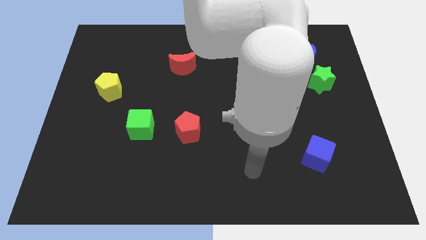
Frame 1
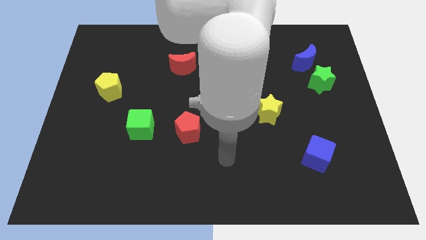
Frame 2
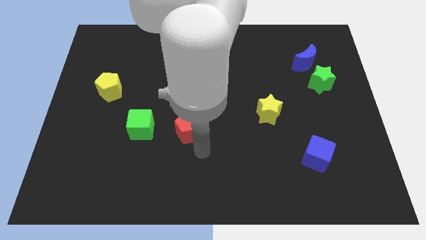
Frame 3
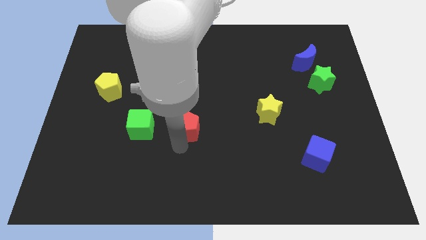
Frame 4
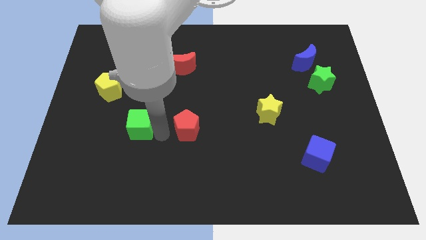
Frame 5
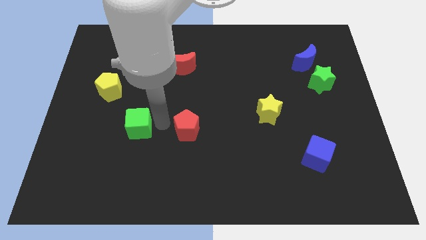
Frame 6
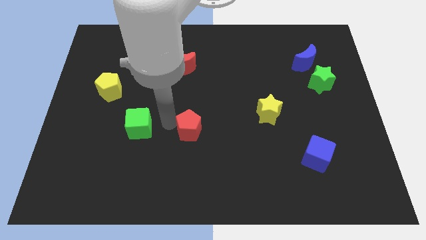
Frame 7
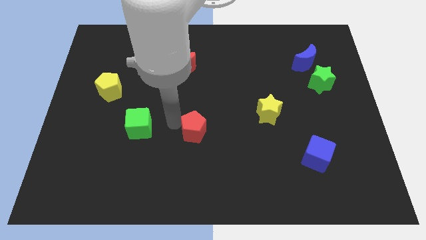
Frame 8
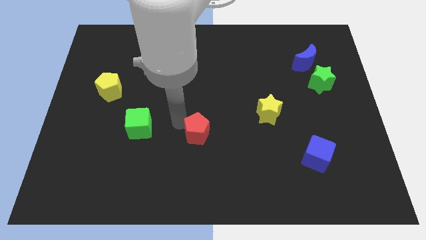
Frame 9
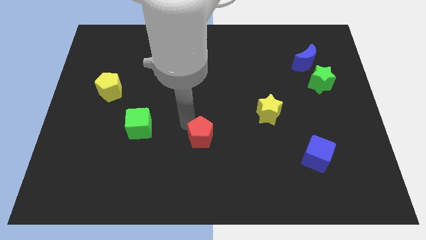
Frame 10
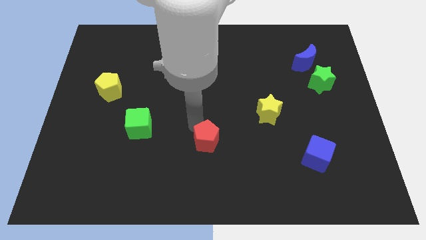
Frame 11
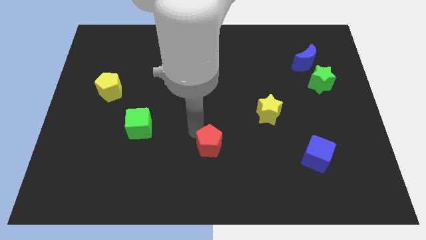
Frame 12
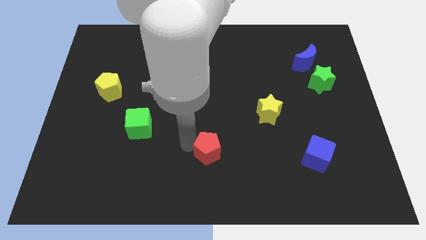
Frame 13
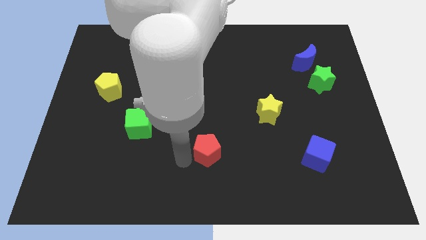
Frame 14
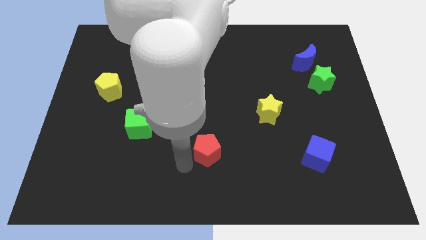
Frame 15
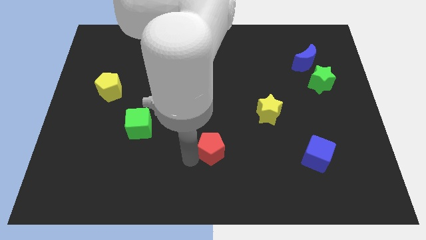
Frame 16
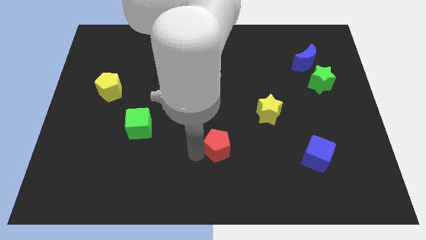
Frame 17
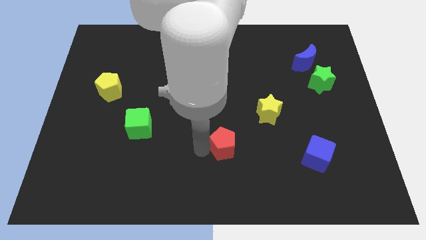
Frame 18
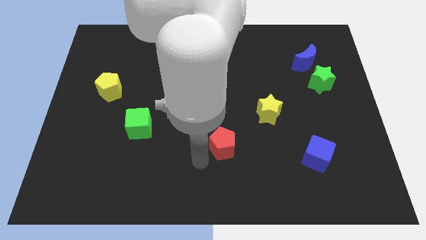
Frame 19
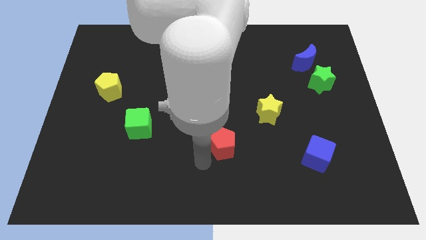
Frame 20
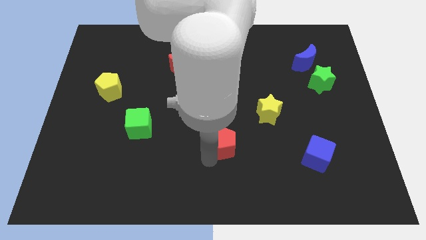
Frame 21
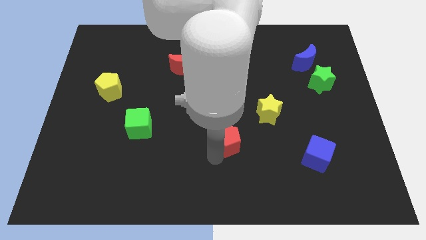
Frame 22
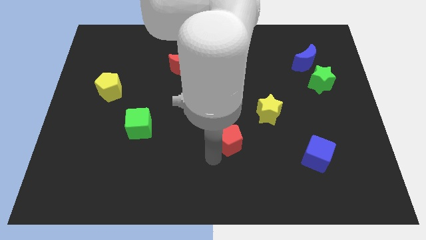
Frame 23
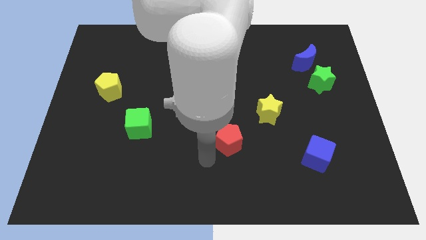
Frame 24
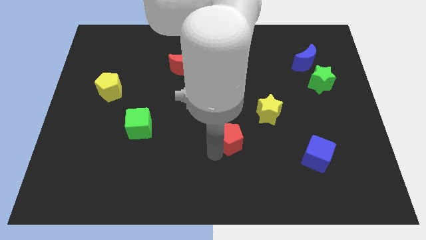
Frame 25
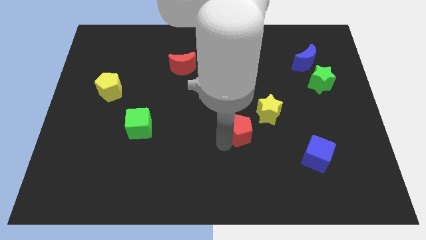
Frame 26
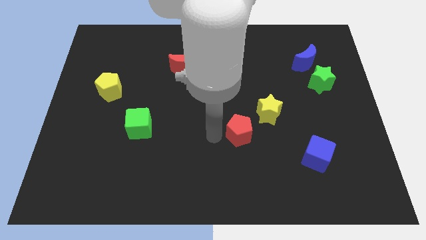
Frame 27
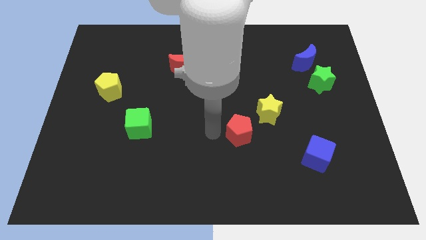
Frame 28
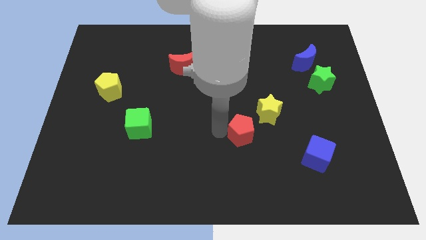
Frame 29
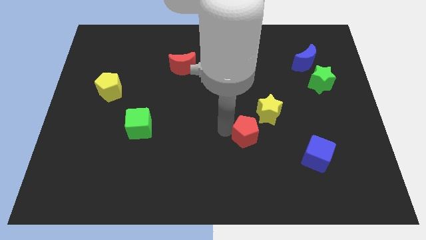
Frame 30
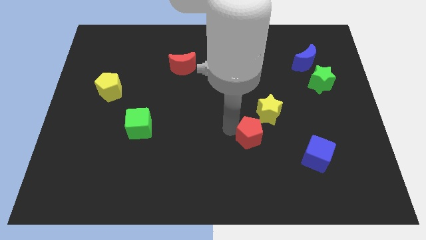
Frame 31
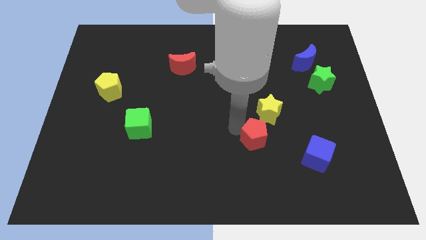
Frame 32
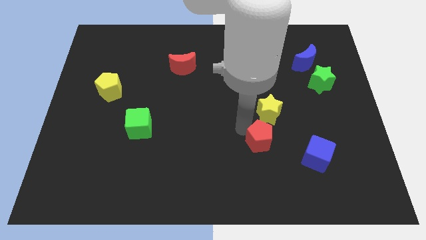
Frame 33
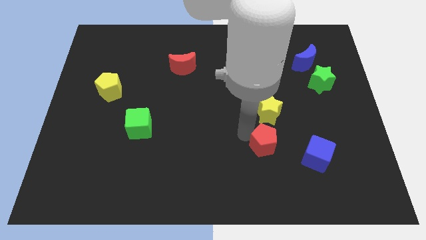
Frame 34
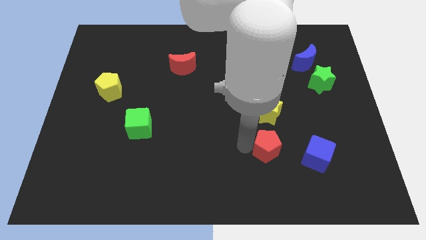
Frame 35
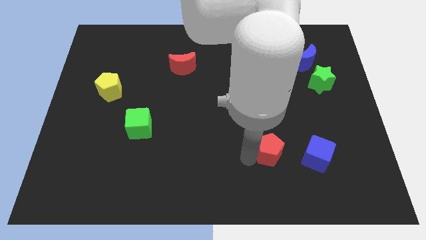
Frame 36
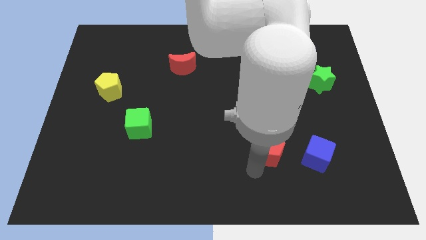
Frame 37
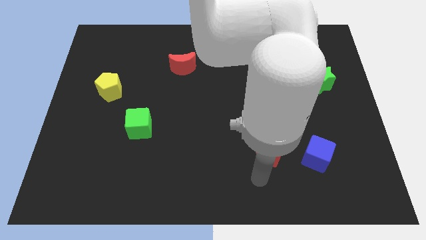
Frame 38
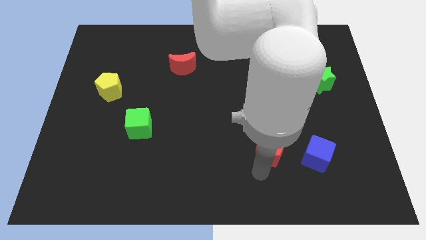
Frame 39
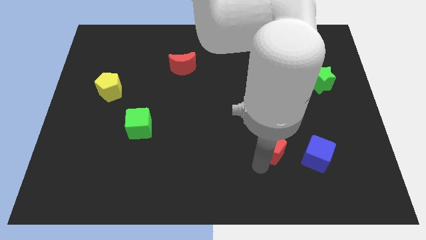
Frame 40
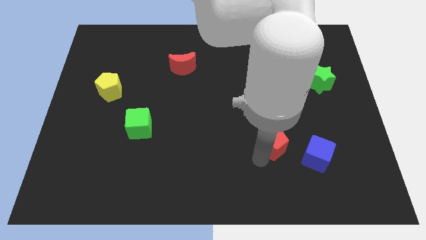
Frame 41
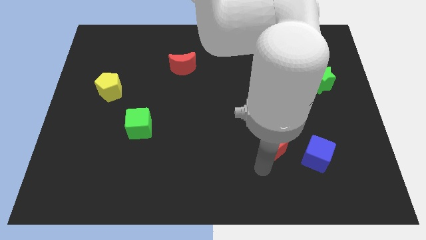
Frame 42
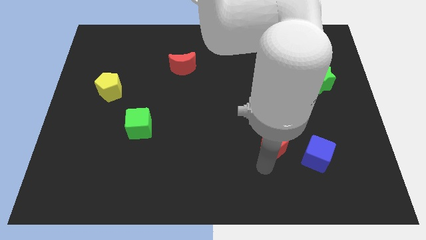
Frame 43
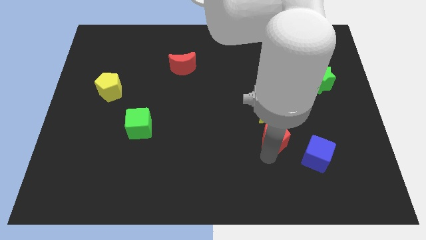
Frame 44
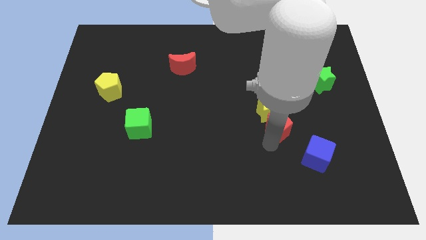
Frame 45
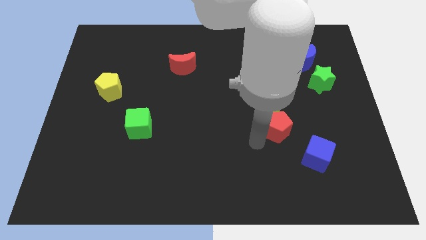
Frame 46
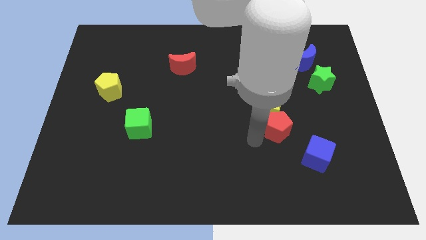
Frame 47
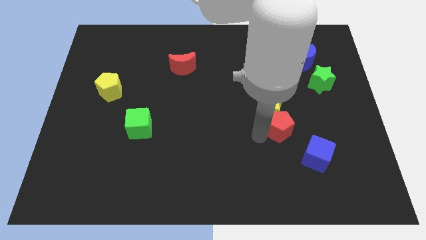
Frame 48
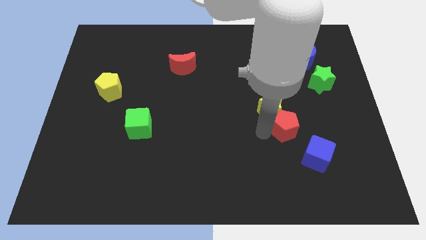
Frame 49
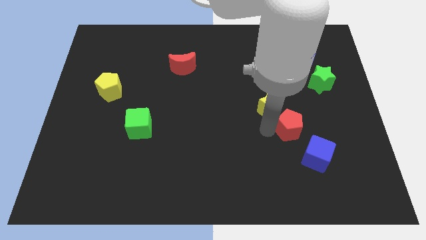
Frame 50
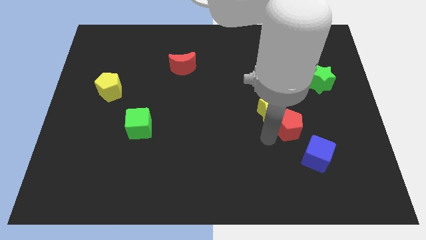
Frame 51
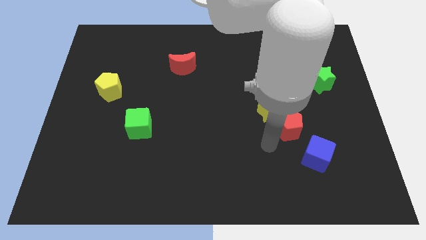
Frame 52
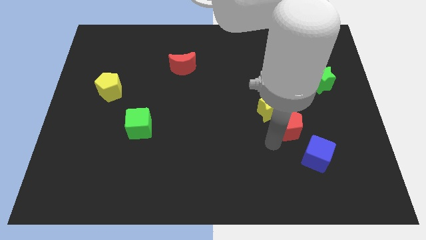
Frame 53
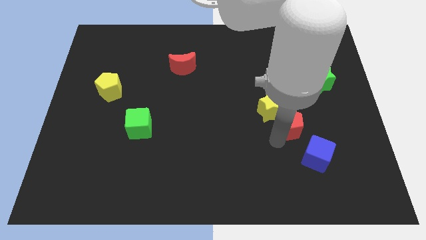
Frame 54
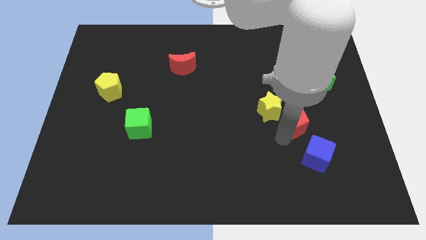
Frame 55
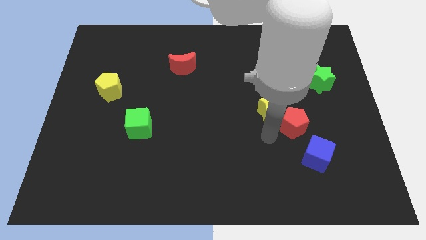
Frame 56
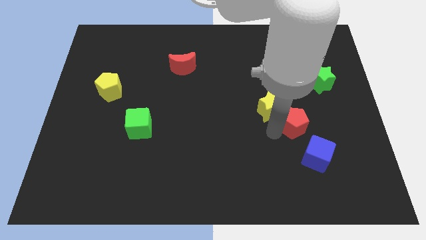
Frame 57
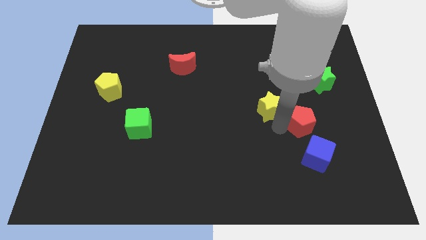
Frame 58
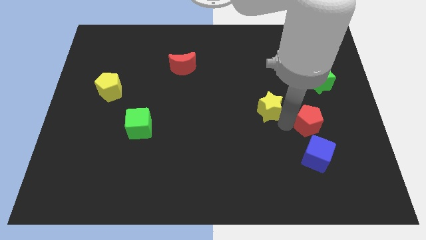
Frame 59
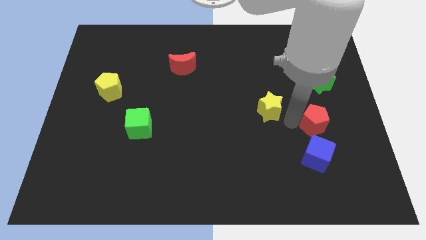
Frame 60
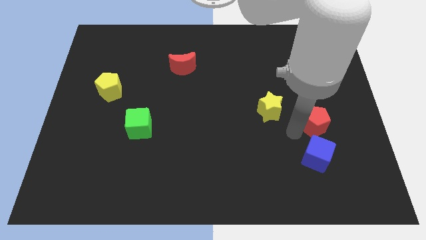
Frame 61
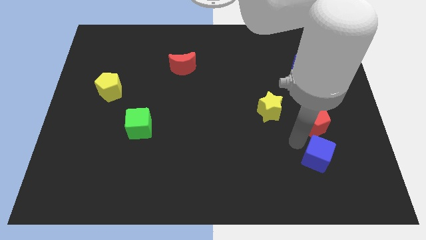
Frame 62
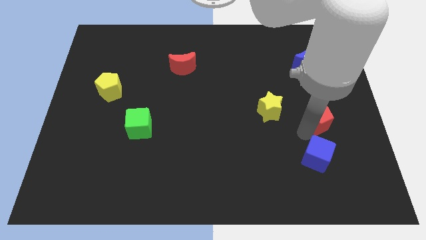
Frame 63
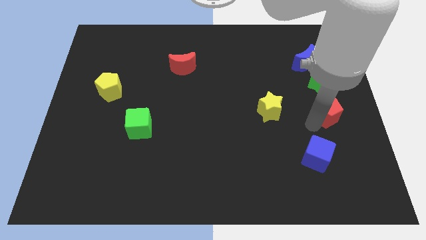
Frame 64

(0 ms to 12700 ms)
move the red pentagon to the center right
